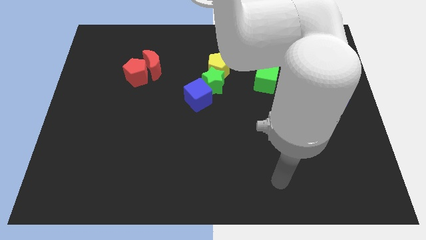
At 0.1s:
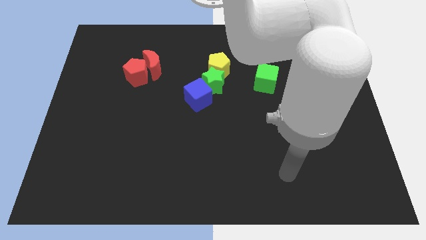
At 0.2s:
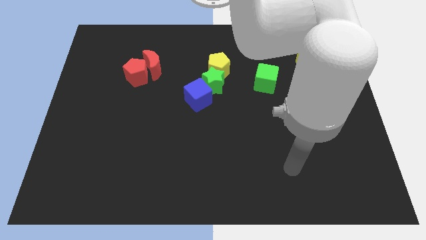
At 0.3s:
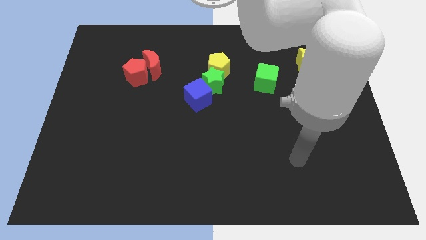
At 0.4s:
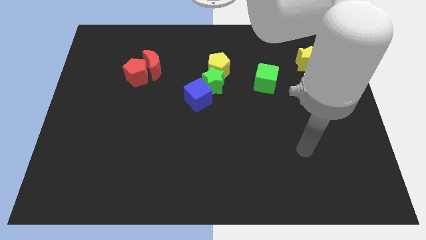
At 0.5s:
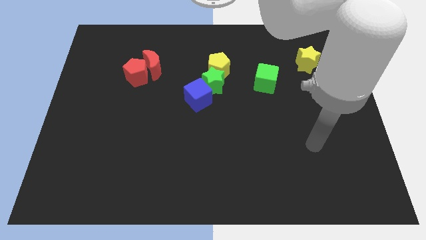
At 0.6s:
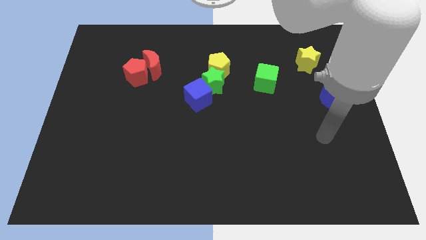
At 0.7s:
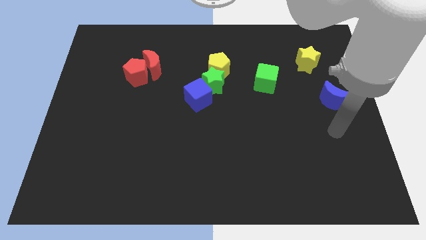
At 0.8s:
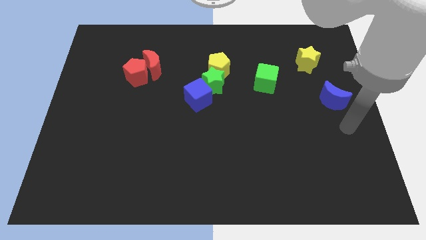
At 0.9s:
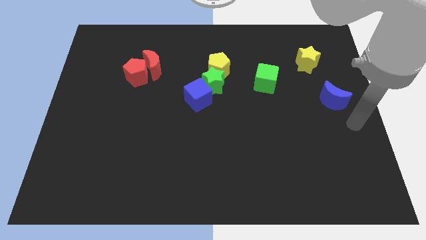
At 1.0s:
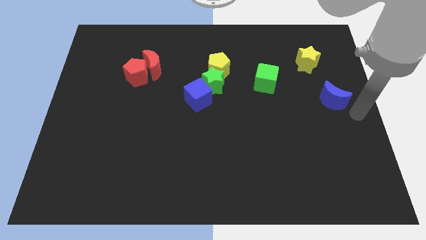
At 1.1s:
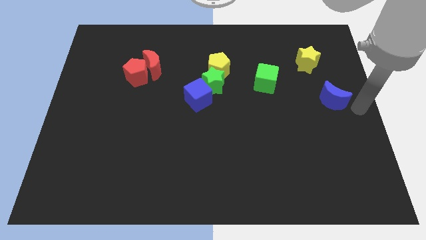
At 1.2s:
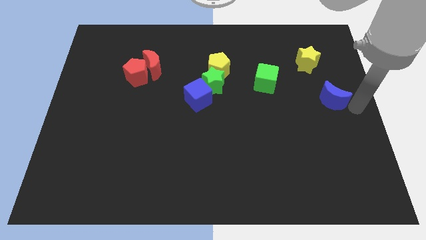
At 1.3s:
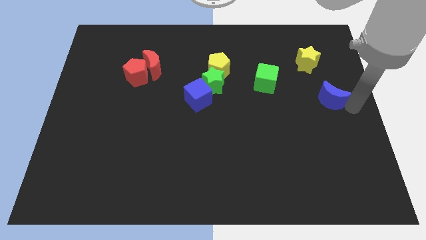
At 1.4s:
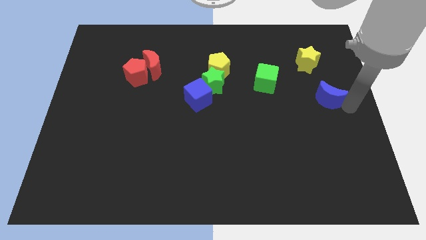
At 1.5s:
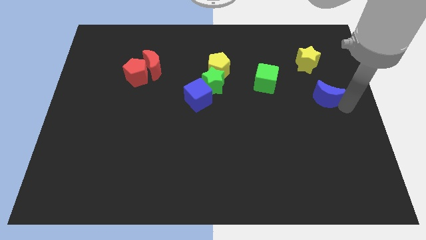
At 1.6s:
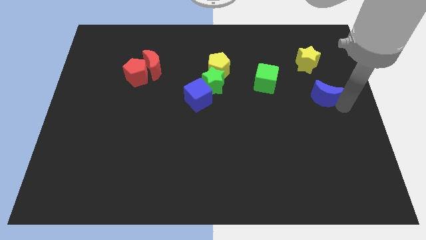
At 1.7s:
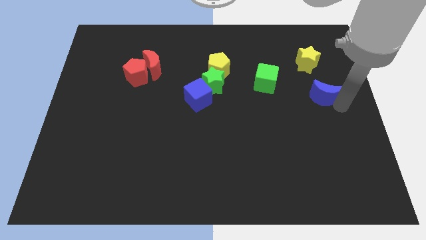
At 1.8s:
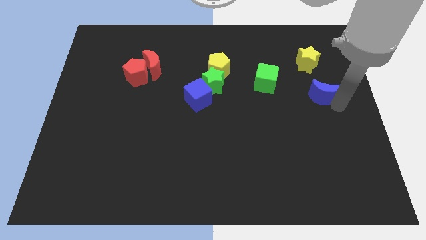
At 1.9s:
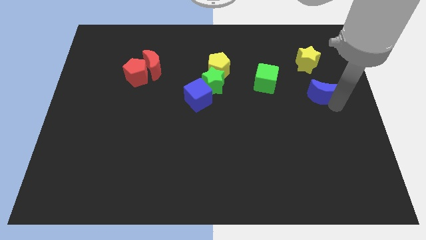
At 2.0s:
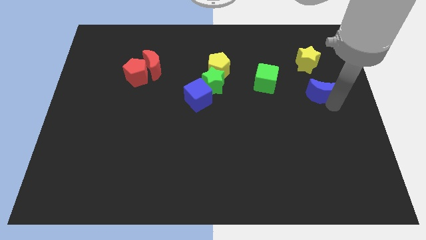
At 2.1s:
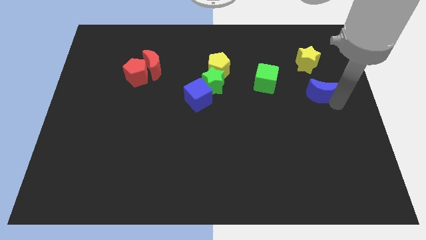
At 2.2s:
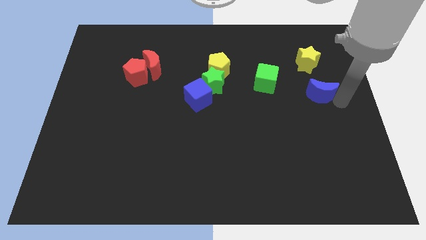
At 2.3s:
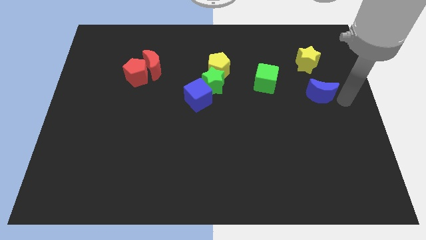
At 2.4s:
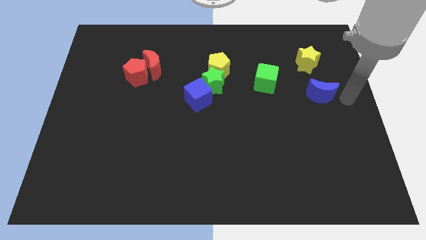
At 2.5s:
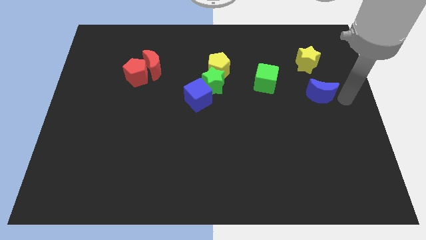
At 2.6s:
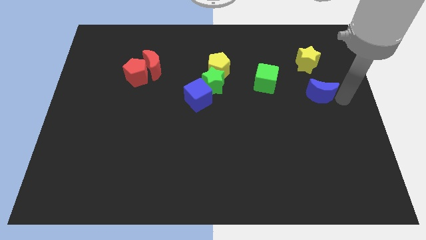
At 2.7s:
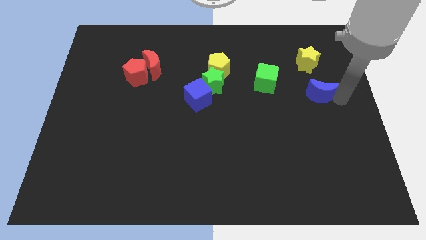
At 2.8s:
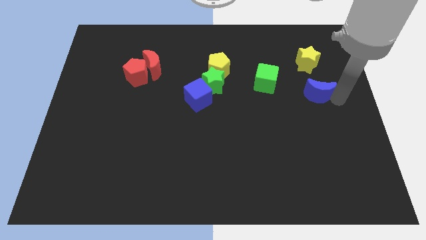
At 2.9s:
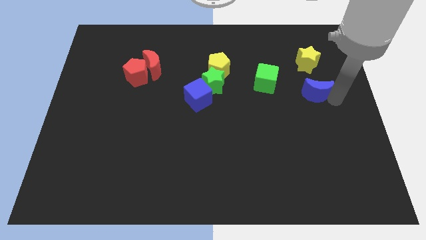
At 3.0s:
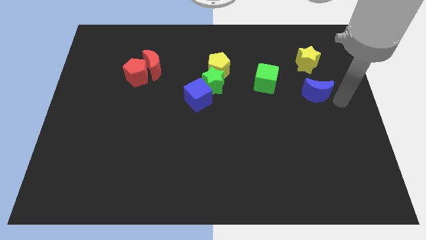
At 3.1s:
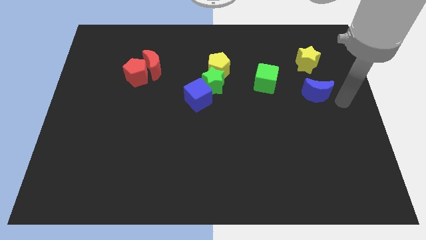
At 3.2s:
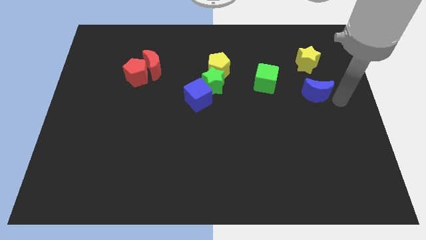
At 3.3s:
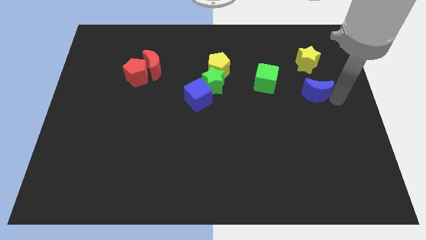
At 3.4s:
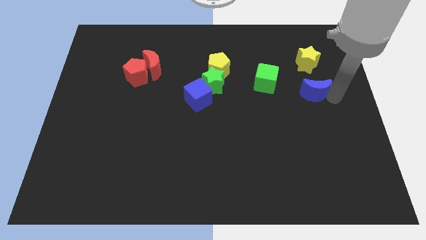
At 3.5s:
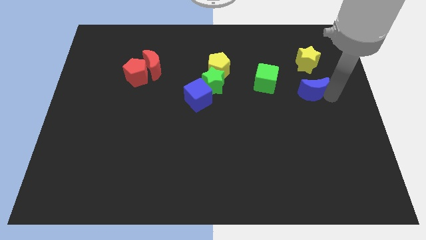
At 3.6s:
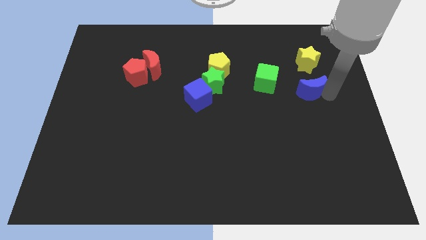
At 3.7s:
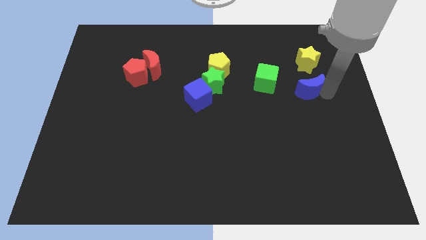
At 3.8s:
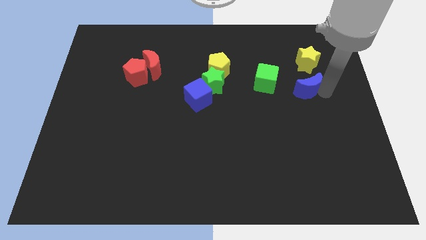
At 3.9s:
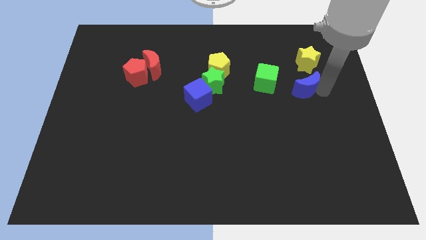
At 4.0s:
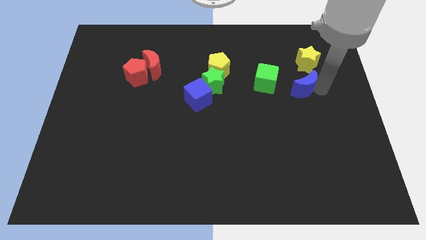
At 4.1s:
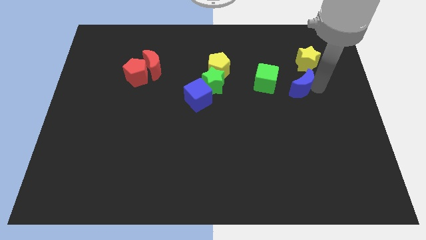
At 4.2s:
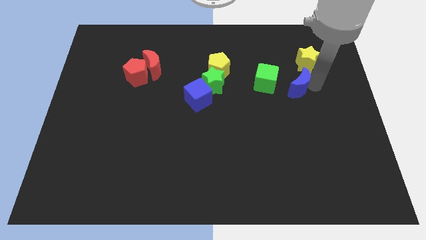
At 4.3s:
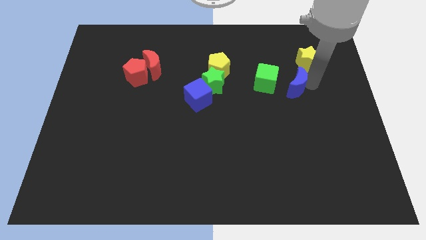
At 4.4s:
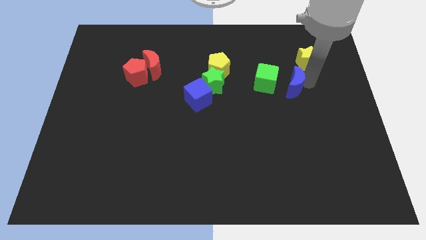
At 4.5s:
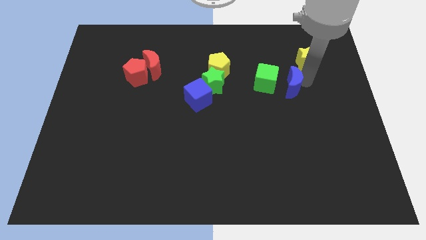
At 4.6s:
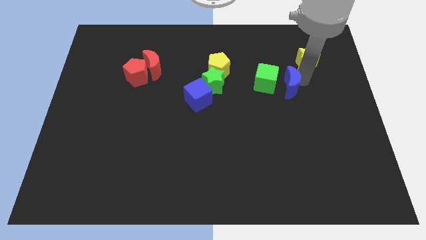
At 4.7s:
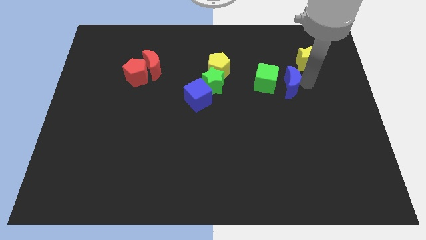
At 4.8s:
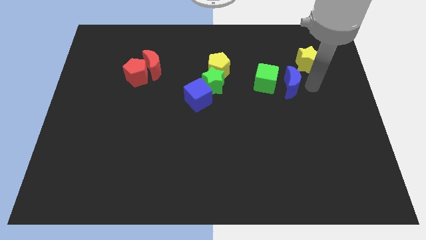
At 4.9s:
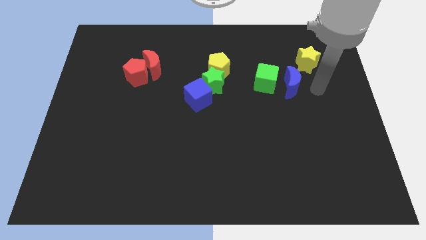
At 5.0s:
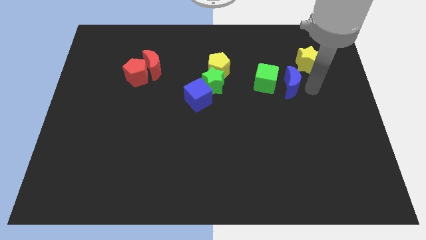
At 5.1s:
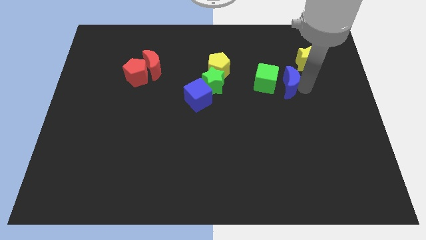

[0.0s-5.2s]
push the blue moon towards the green cube

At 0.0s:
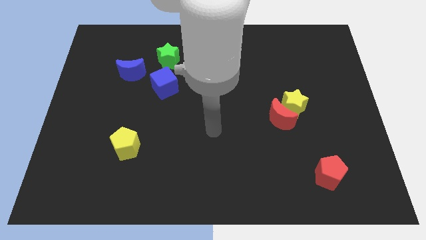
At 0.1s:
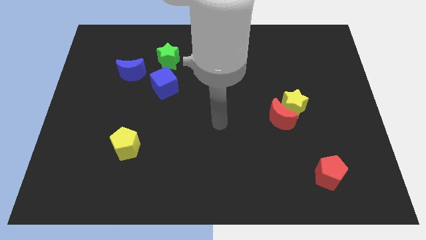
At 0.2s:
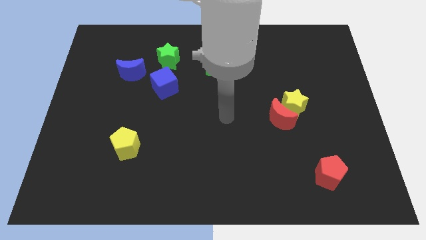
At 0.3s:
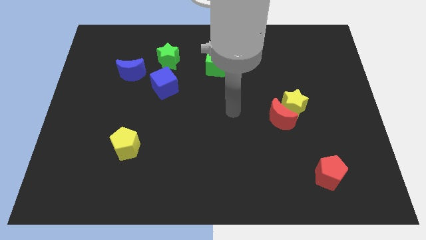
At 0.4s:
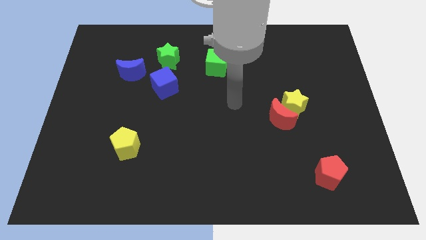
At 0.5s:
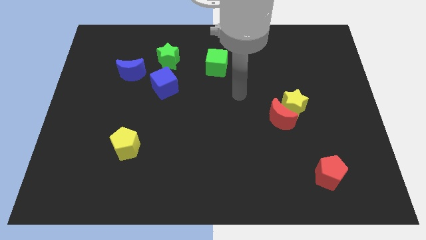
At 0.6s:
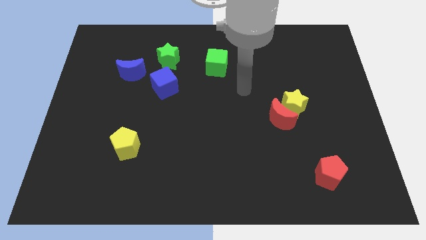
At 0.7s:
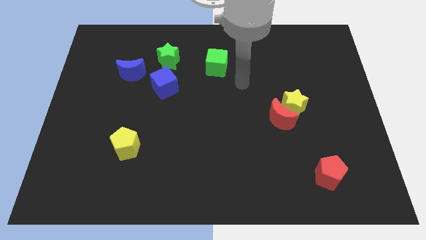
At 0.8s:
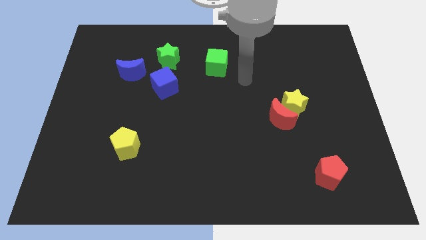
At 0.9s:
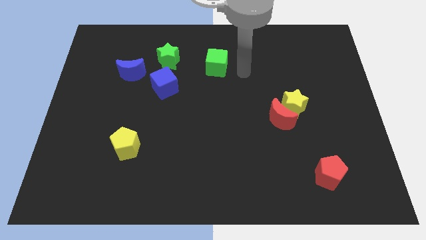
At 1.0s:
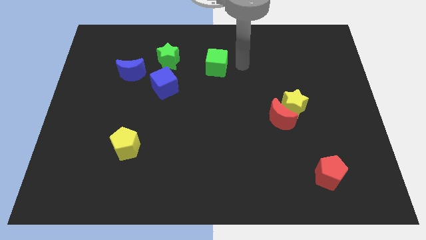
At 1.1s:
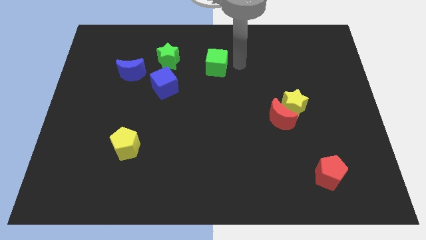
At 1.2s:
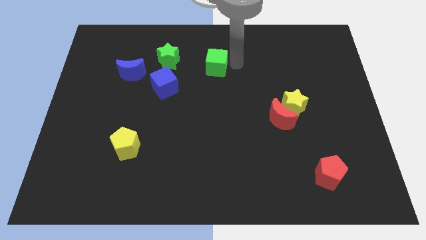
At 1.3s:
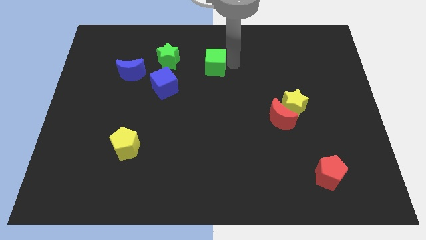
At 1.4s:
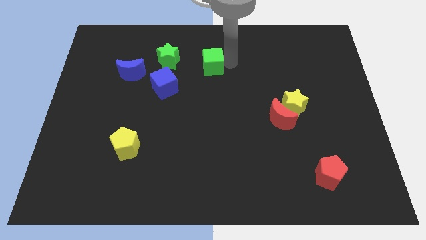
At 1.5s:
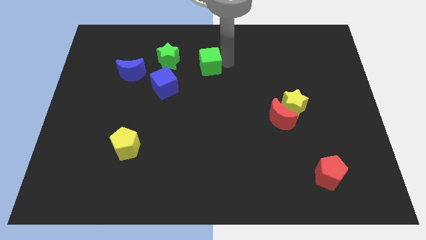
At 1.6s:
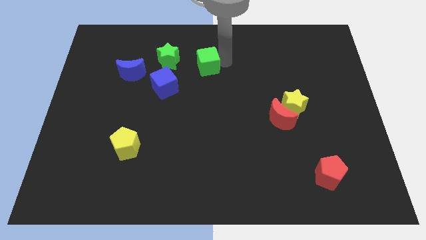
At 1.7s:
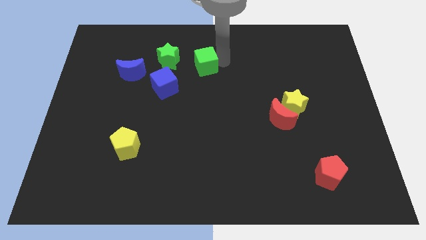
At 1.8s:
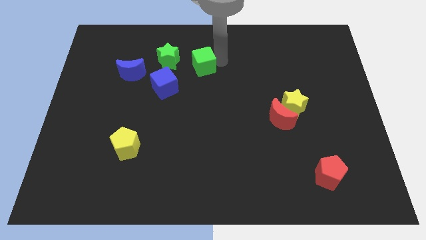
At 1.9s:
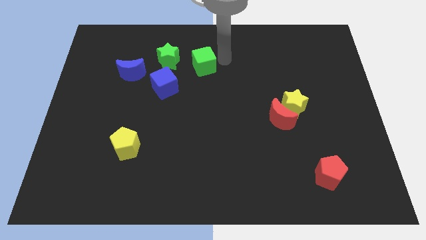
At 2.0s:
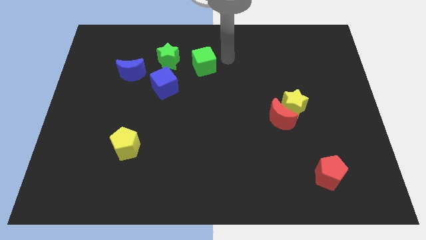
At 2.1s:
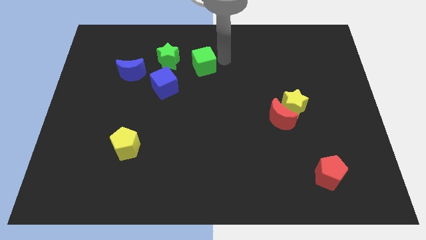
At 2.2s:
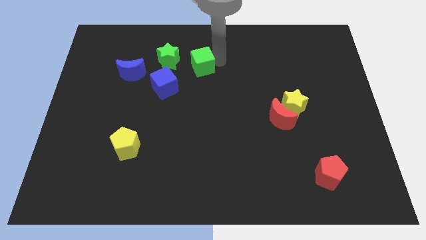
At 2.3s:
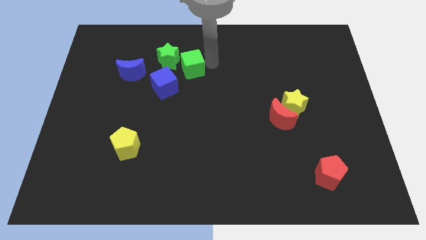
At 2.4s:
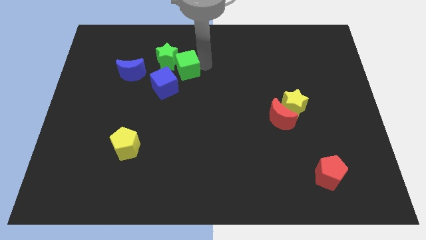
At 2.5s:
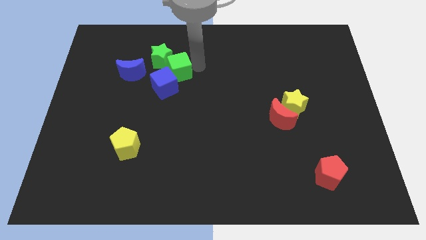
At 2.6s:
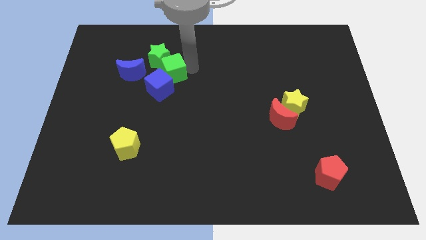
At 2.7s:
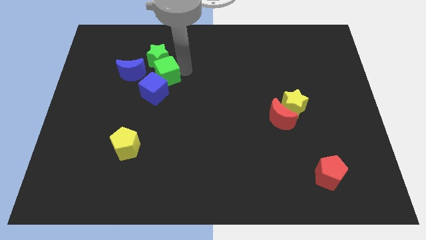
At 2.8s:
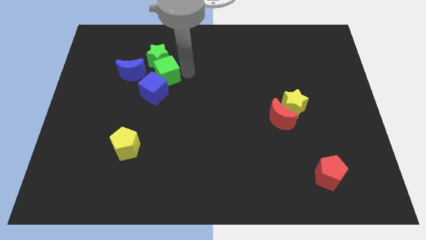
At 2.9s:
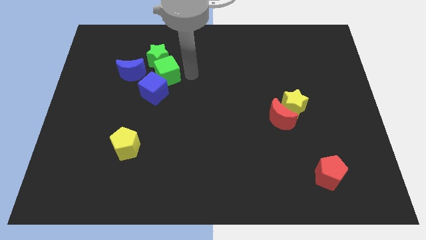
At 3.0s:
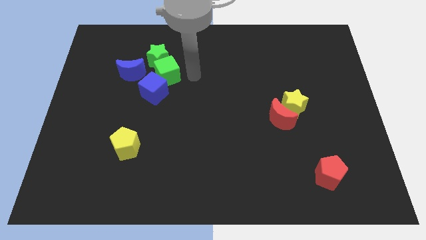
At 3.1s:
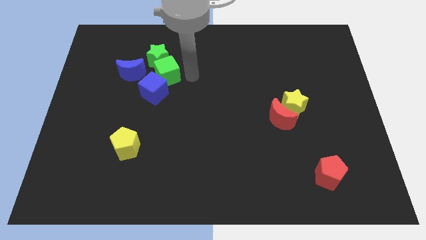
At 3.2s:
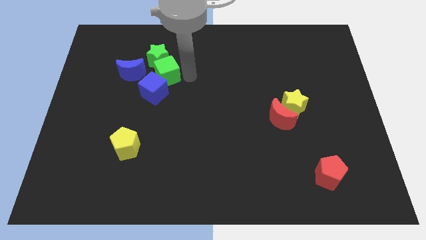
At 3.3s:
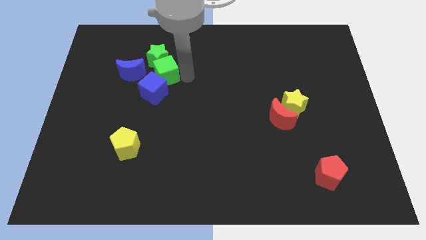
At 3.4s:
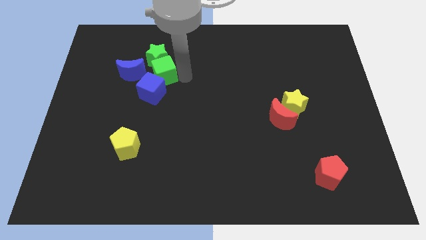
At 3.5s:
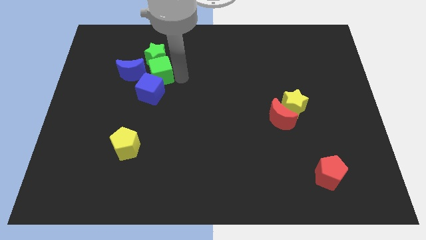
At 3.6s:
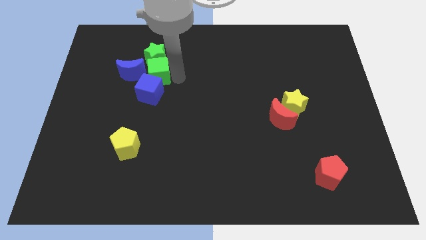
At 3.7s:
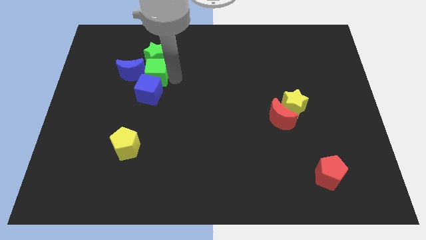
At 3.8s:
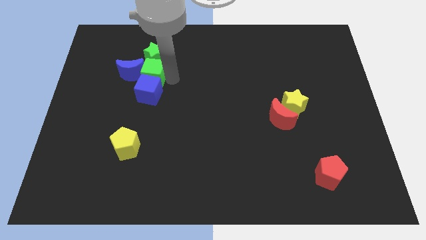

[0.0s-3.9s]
move the green cube towards the blue moon
